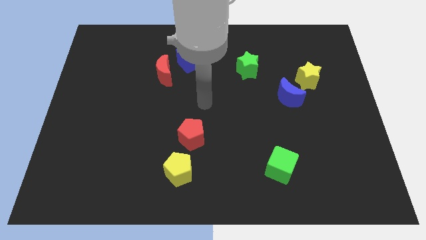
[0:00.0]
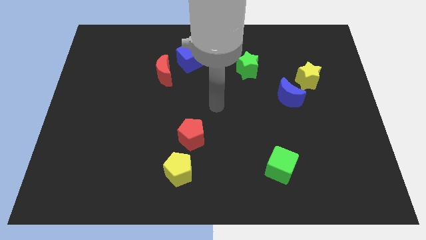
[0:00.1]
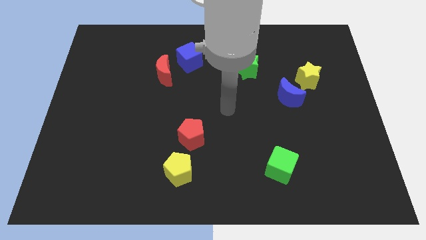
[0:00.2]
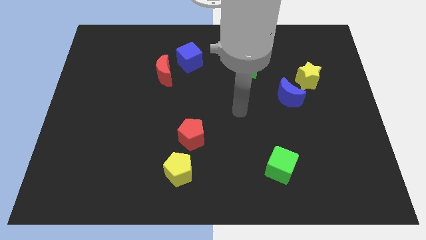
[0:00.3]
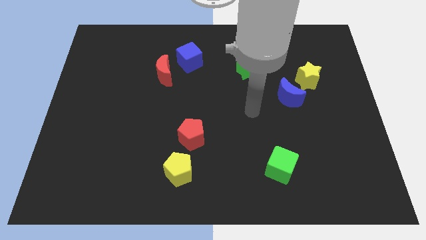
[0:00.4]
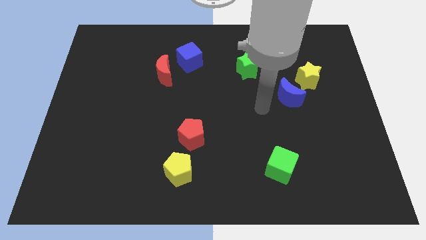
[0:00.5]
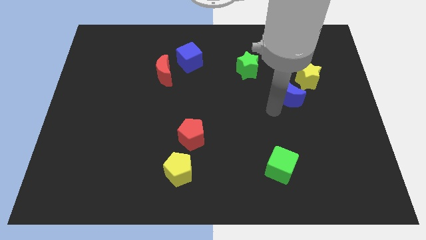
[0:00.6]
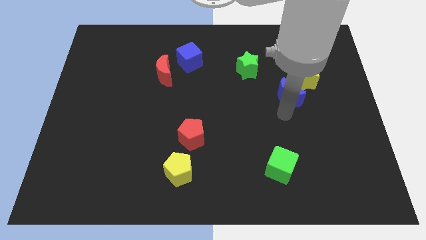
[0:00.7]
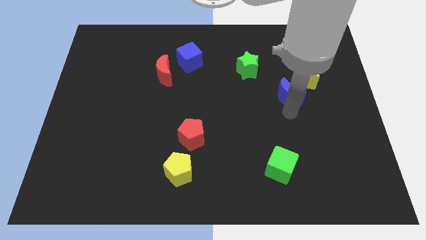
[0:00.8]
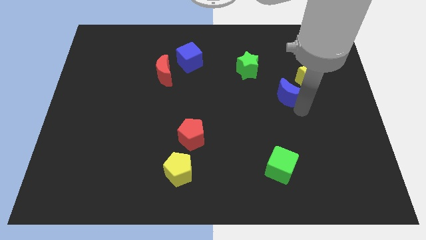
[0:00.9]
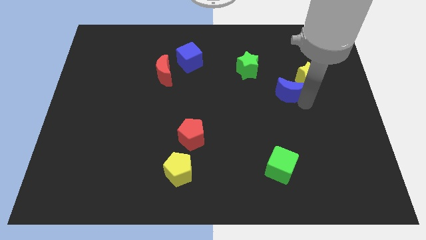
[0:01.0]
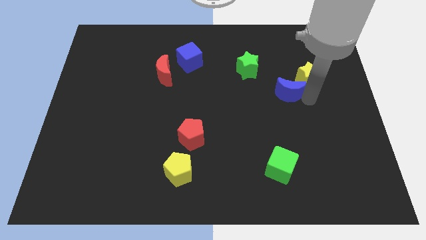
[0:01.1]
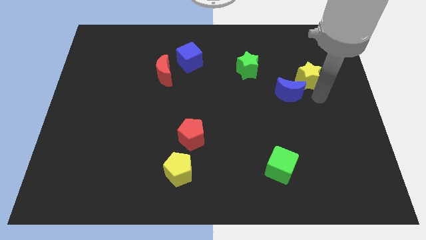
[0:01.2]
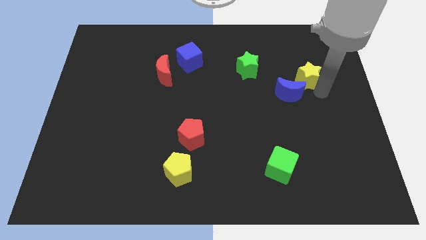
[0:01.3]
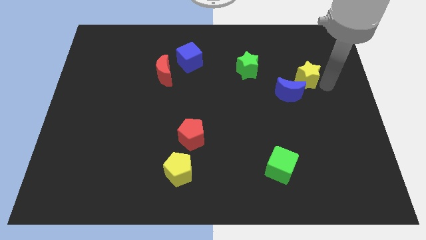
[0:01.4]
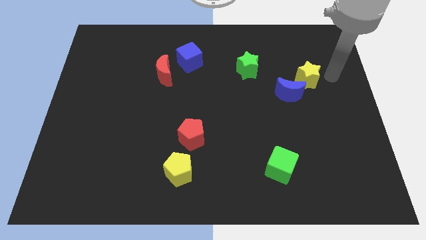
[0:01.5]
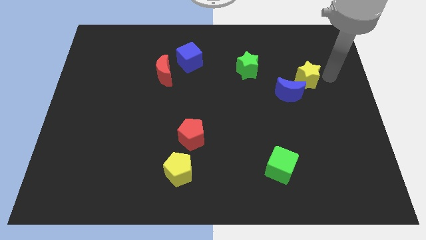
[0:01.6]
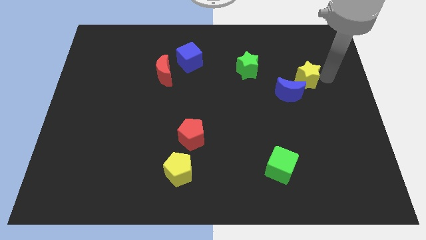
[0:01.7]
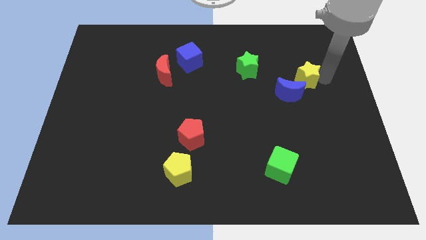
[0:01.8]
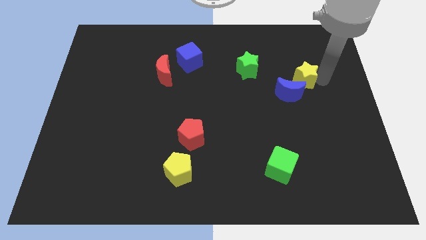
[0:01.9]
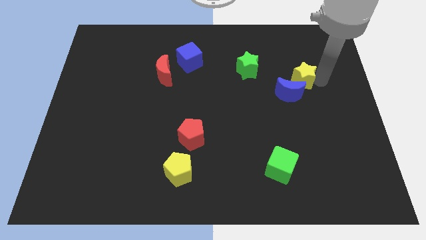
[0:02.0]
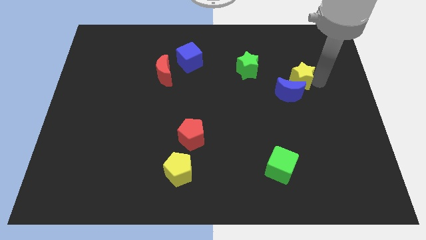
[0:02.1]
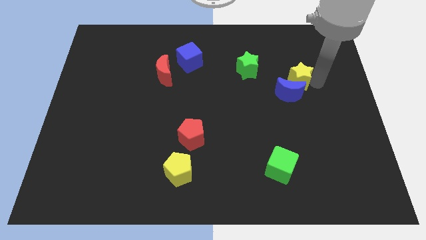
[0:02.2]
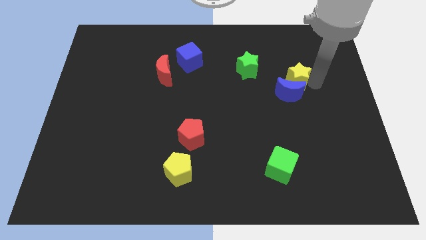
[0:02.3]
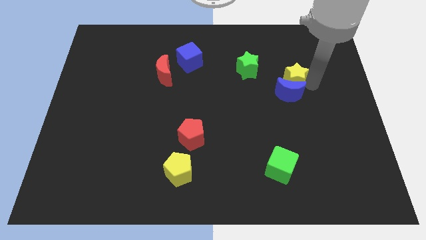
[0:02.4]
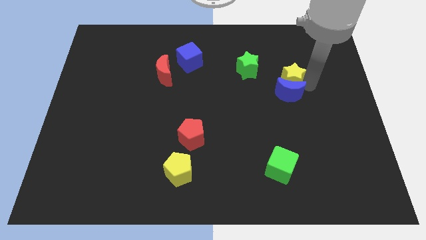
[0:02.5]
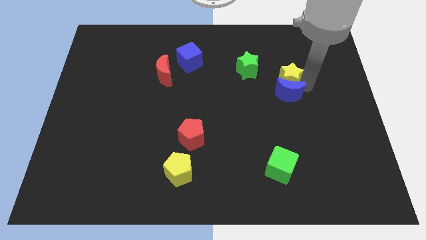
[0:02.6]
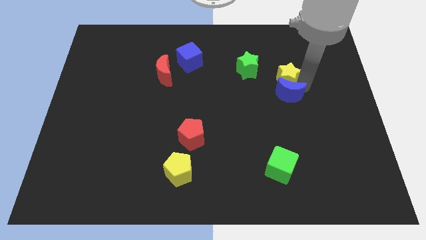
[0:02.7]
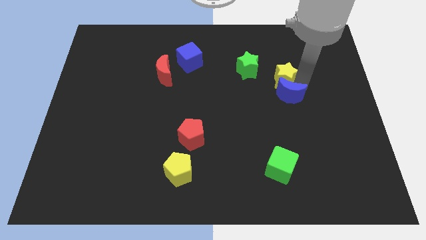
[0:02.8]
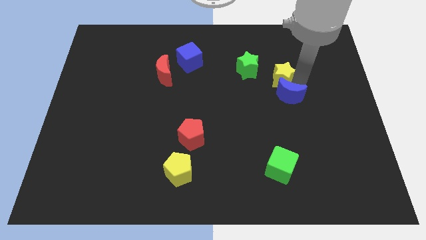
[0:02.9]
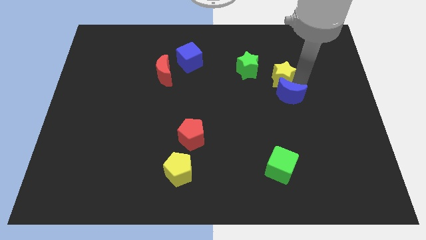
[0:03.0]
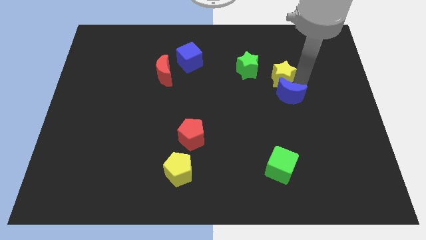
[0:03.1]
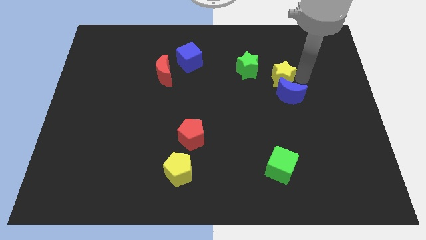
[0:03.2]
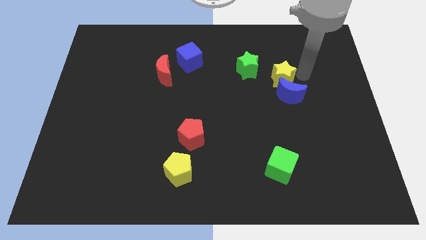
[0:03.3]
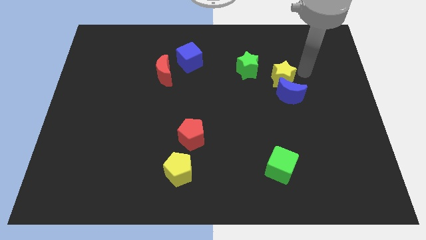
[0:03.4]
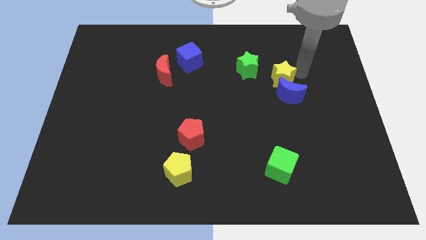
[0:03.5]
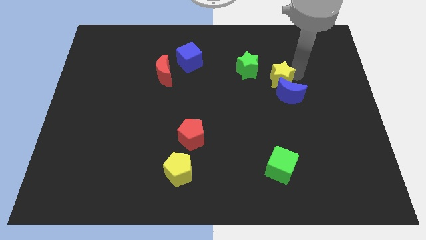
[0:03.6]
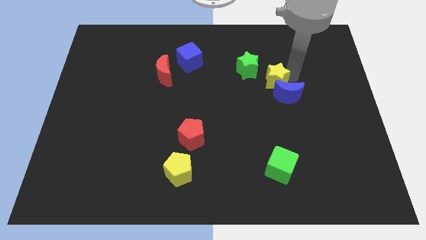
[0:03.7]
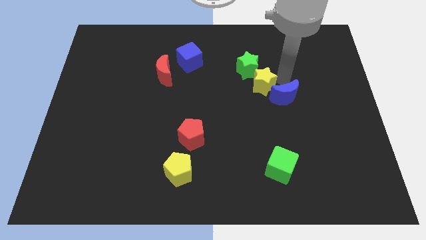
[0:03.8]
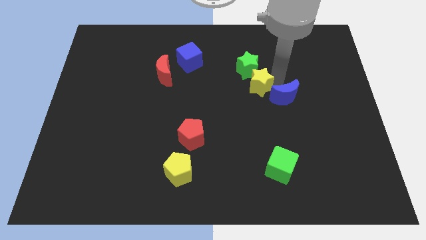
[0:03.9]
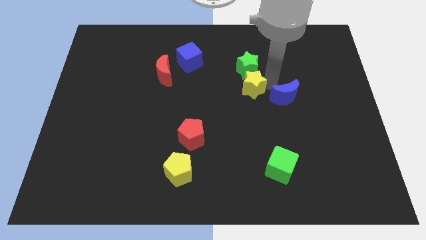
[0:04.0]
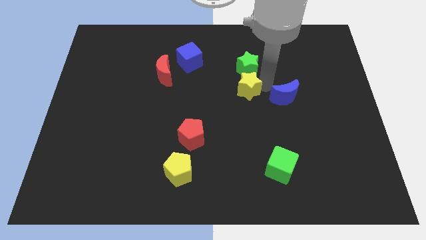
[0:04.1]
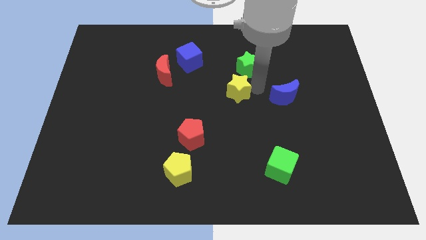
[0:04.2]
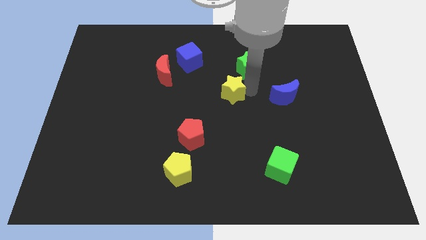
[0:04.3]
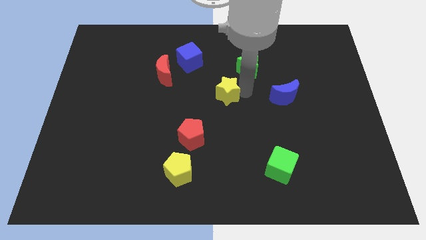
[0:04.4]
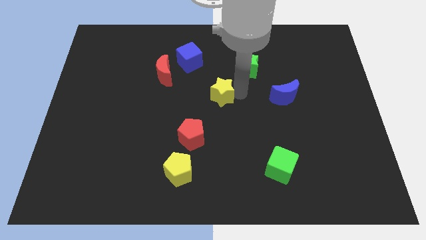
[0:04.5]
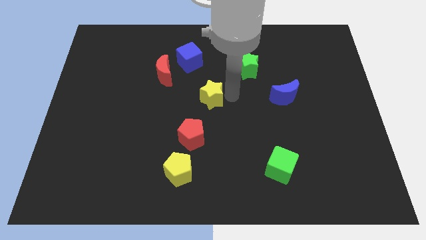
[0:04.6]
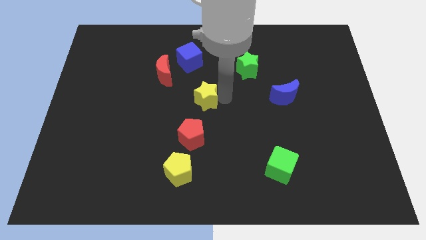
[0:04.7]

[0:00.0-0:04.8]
push the yellow star below the blue cube

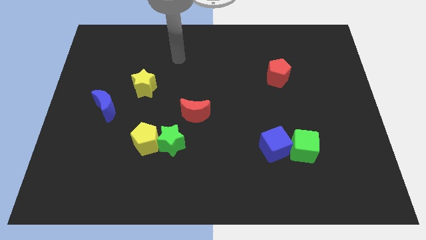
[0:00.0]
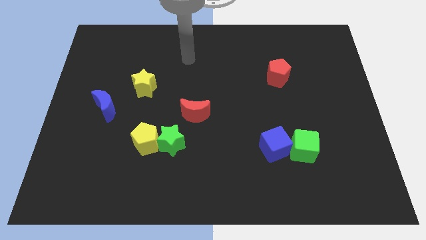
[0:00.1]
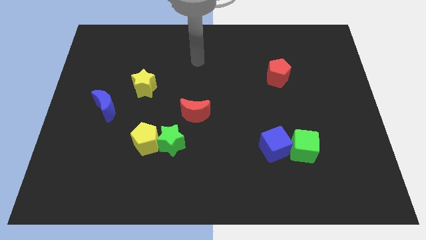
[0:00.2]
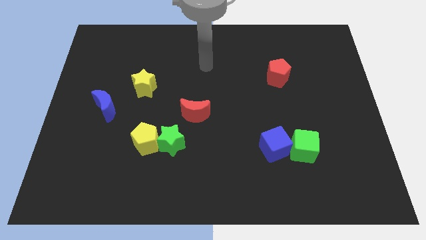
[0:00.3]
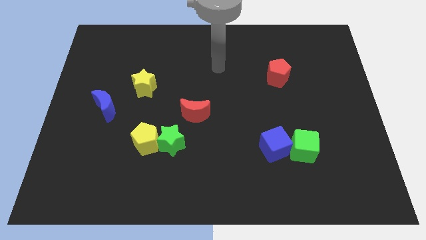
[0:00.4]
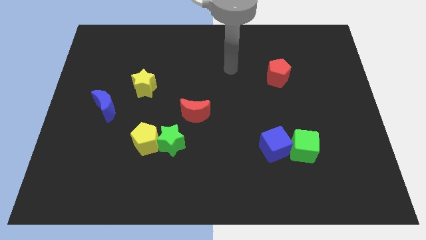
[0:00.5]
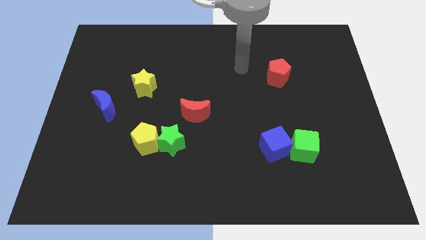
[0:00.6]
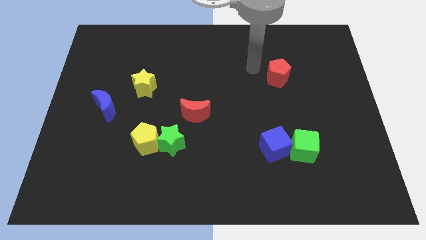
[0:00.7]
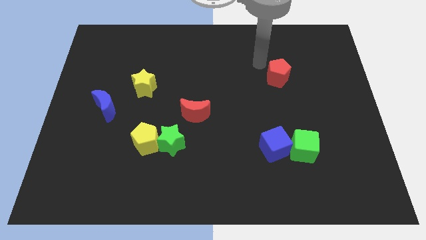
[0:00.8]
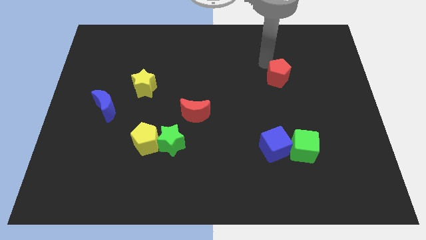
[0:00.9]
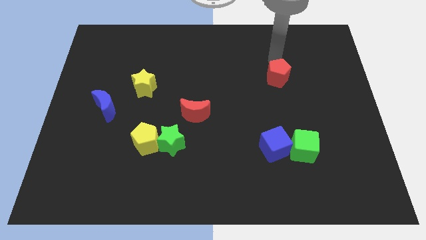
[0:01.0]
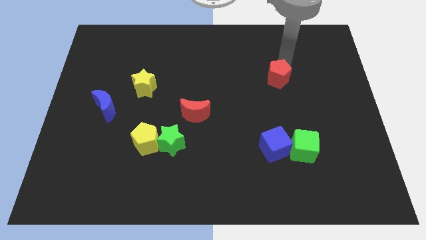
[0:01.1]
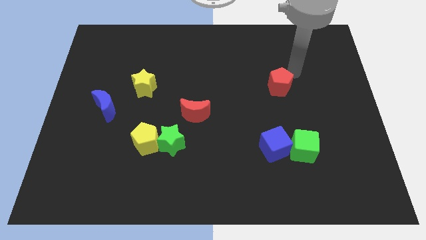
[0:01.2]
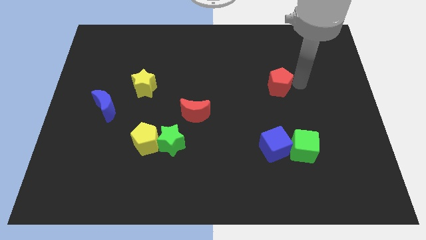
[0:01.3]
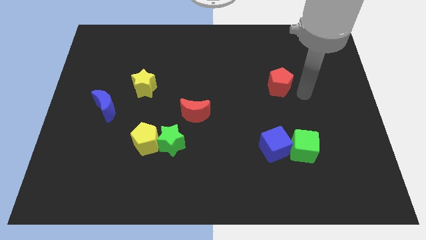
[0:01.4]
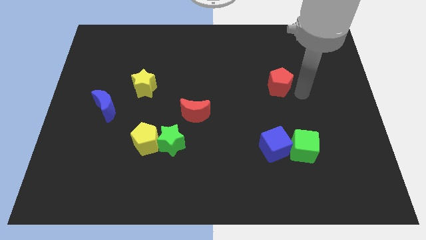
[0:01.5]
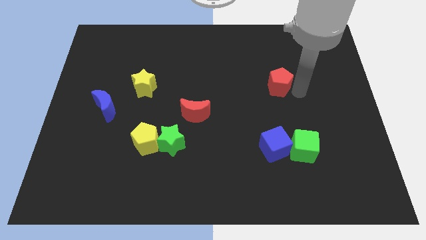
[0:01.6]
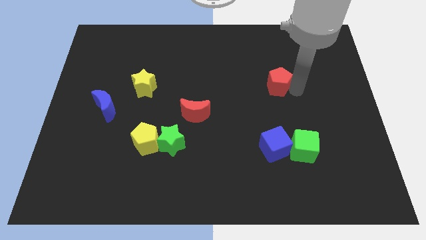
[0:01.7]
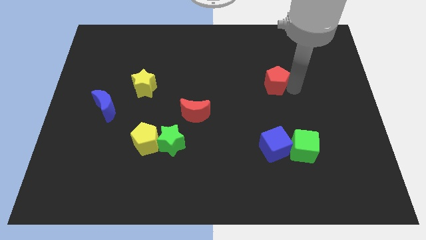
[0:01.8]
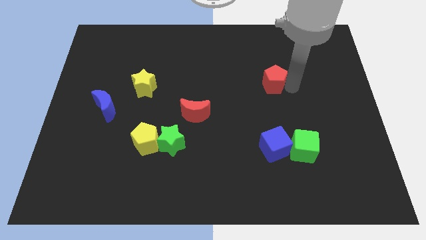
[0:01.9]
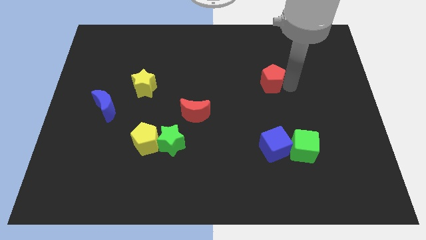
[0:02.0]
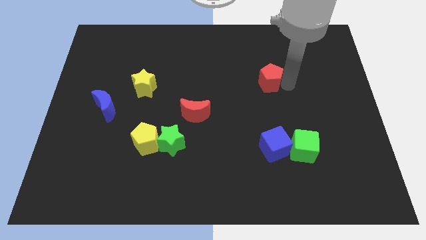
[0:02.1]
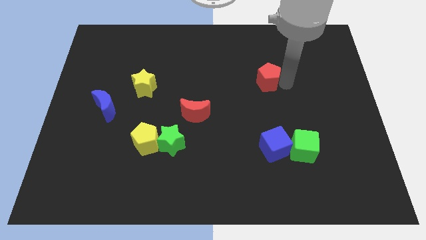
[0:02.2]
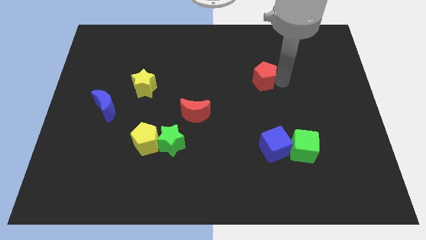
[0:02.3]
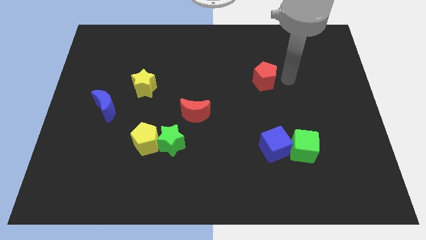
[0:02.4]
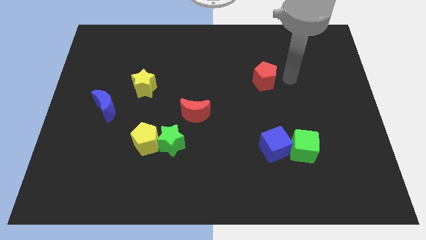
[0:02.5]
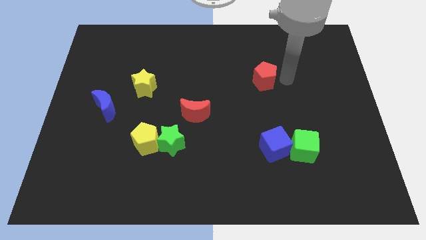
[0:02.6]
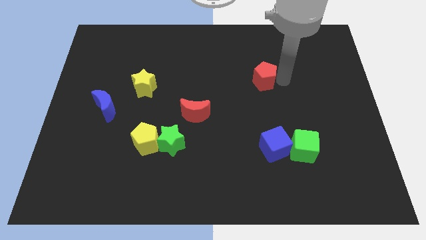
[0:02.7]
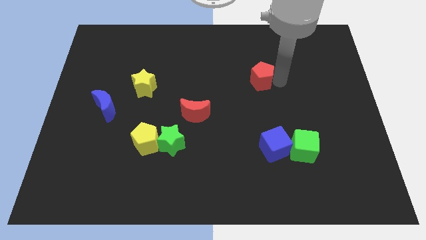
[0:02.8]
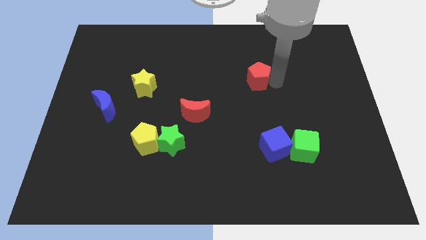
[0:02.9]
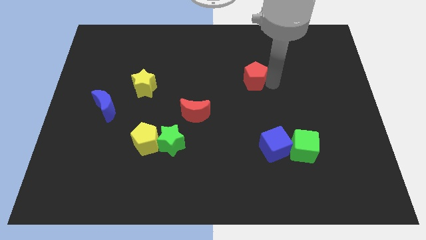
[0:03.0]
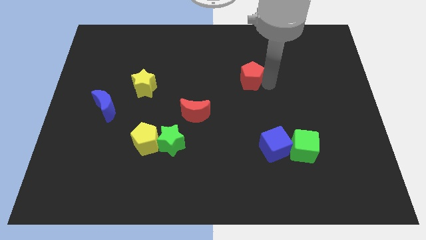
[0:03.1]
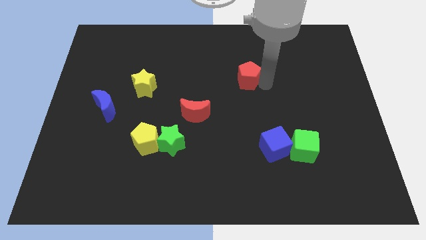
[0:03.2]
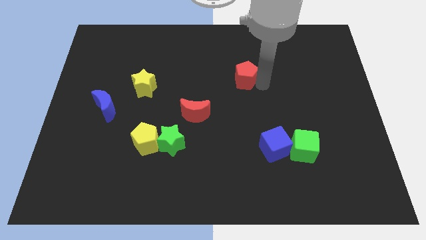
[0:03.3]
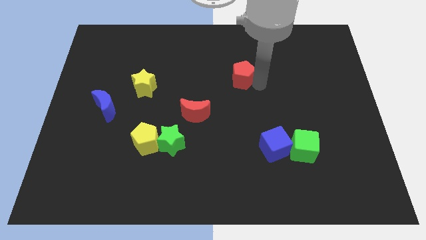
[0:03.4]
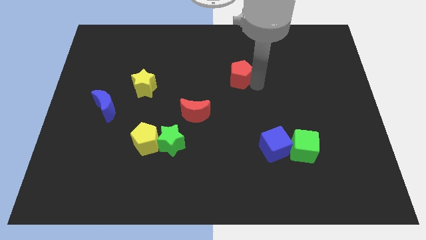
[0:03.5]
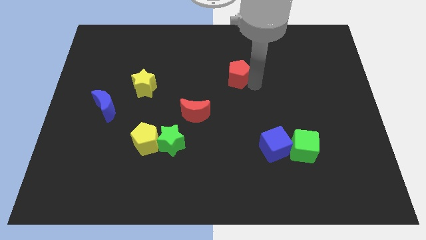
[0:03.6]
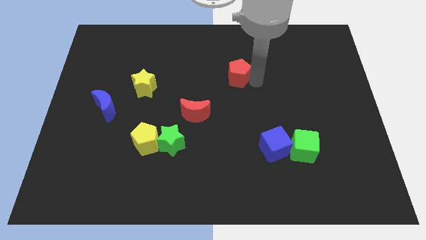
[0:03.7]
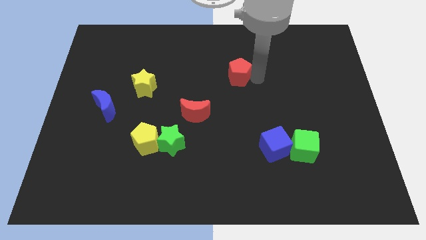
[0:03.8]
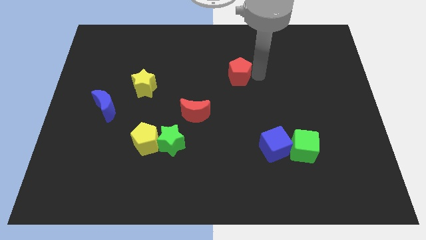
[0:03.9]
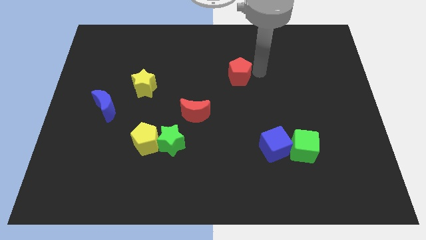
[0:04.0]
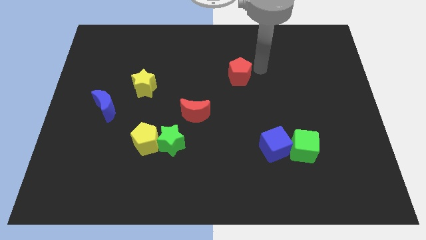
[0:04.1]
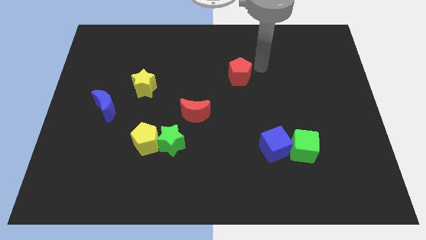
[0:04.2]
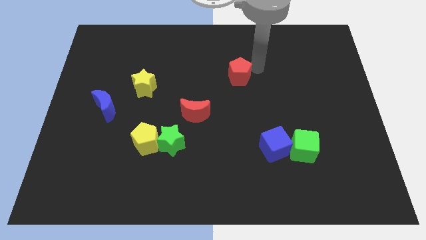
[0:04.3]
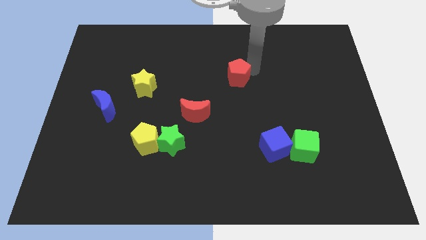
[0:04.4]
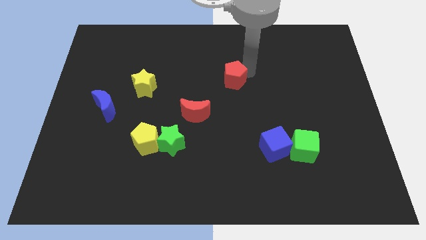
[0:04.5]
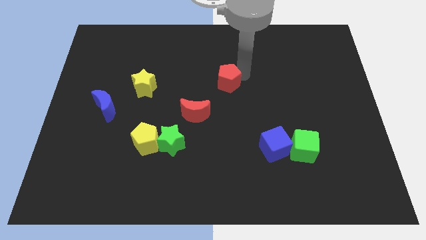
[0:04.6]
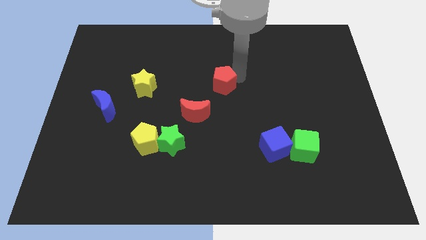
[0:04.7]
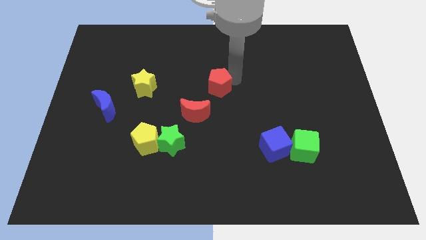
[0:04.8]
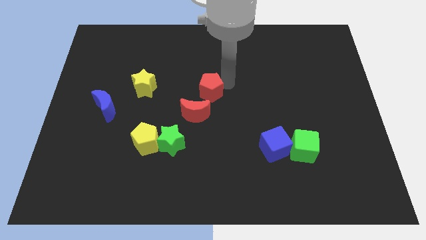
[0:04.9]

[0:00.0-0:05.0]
push the red pentagon right of the yellow star
